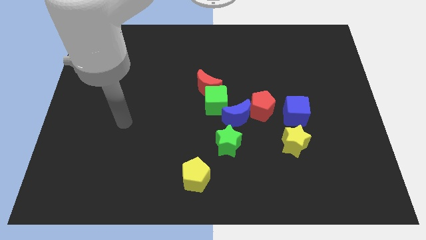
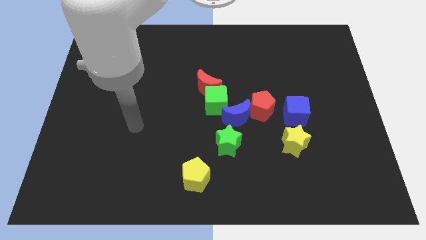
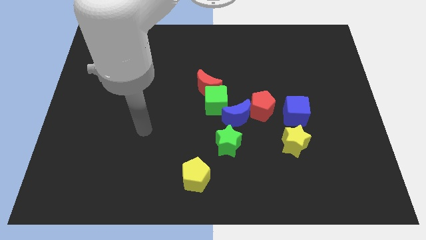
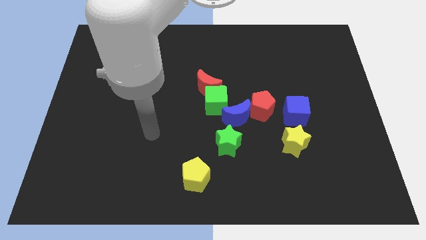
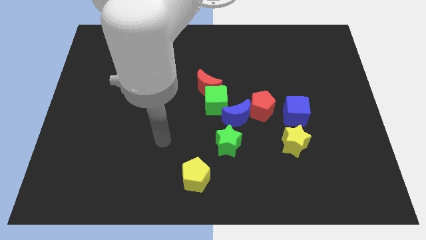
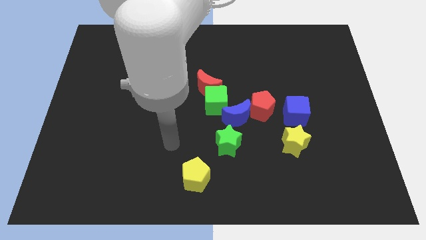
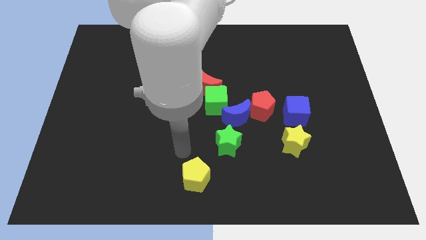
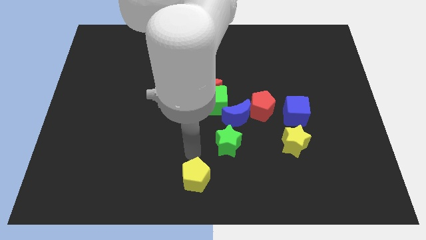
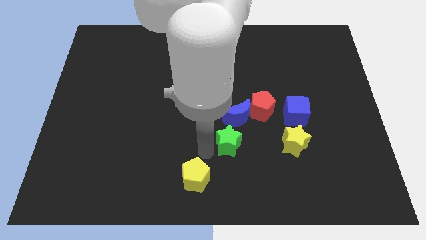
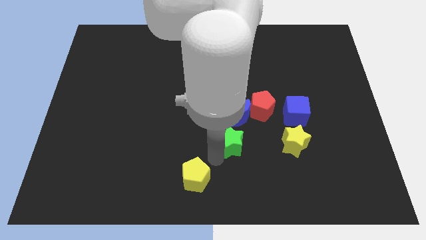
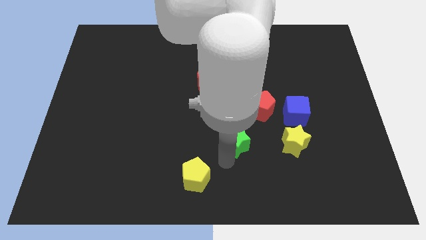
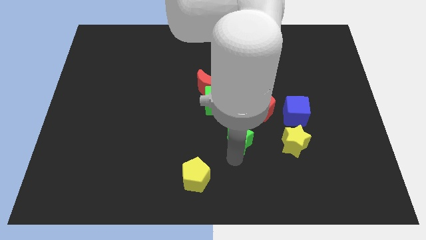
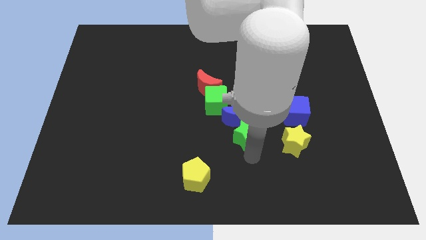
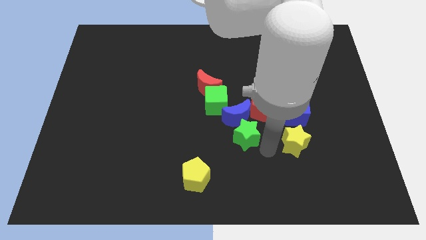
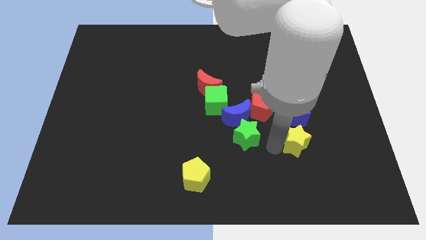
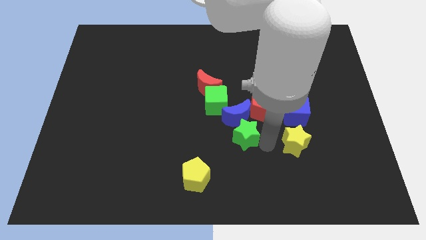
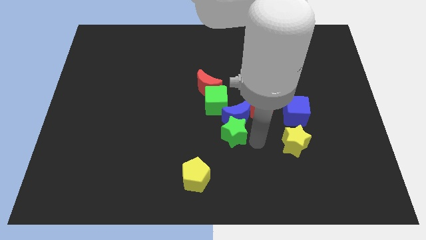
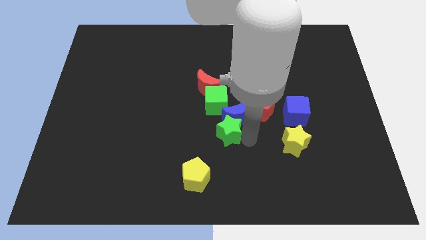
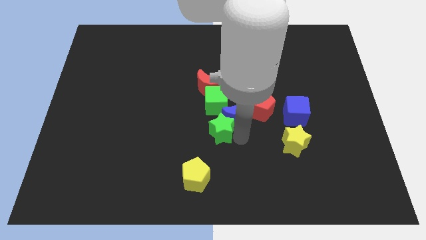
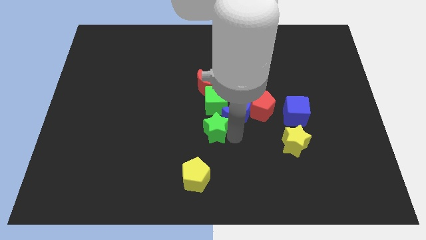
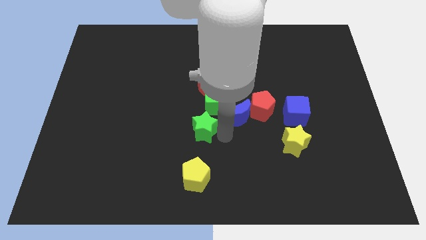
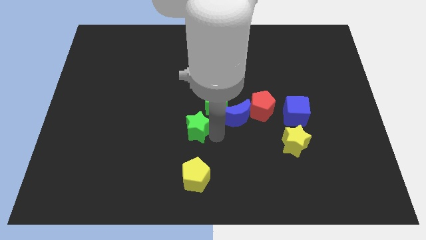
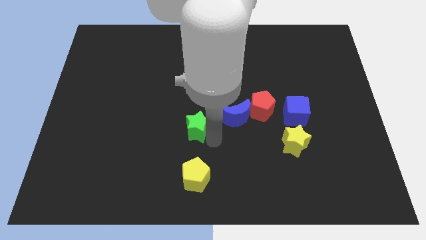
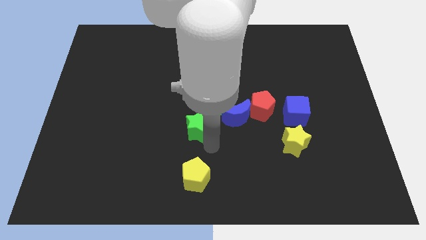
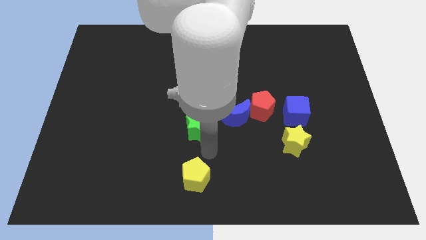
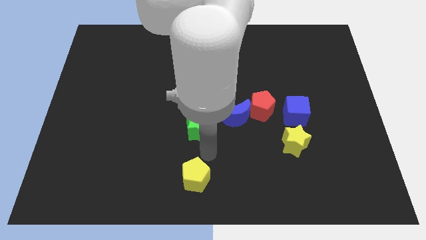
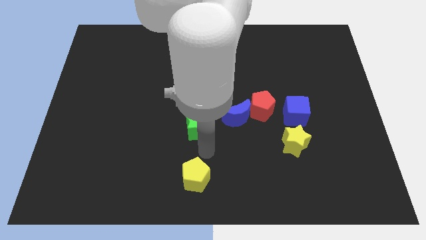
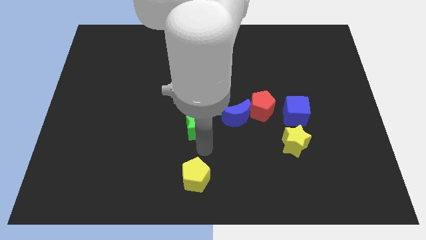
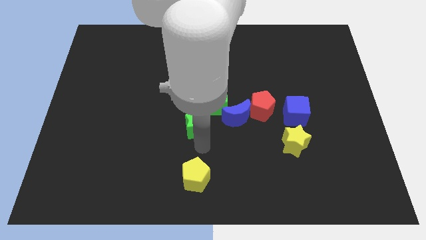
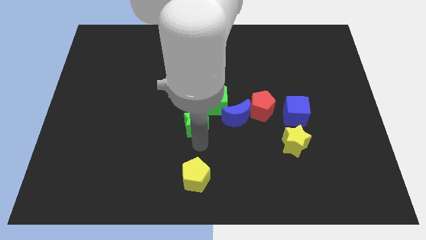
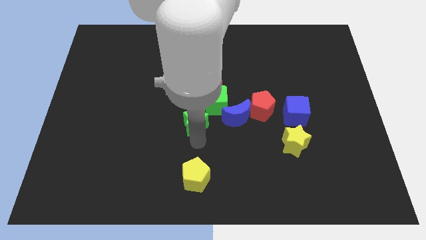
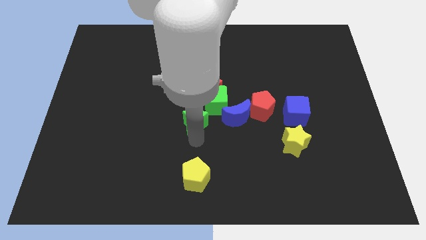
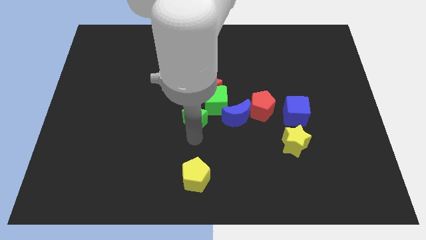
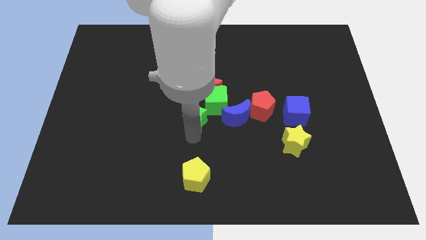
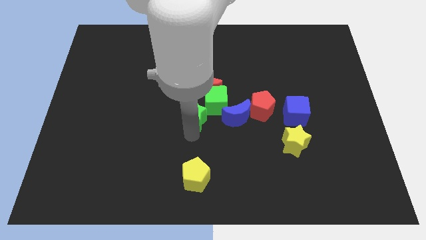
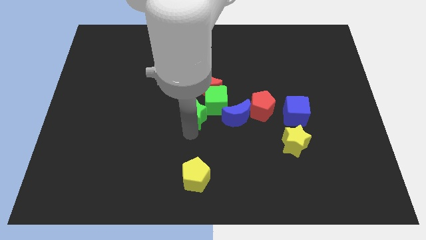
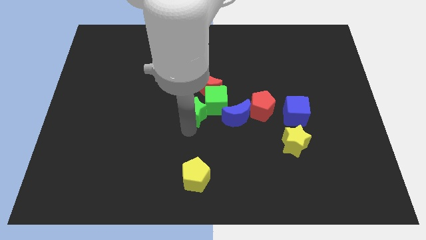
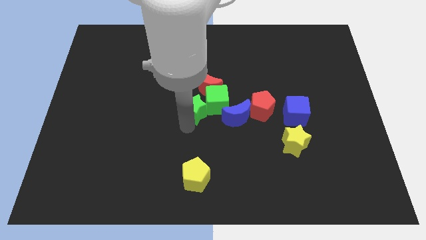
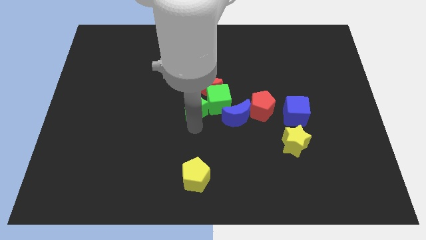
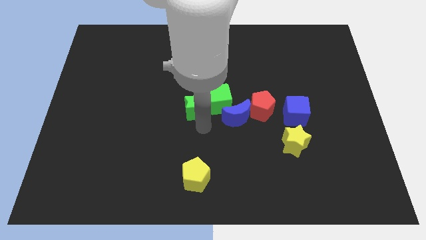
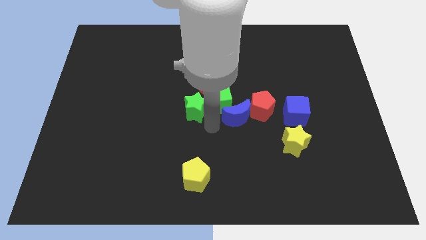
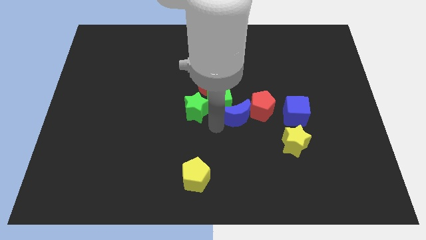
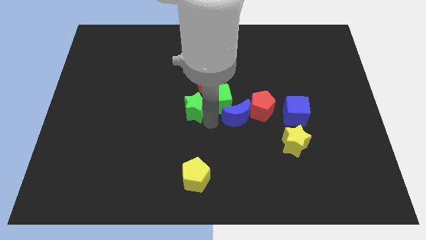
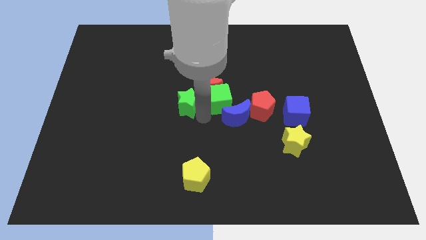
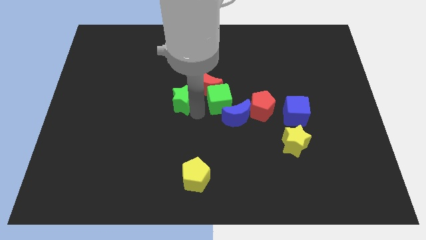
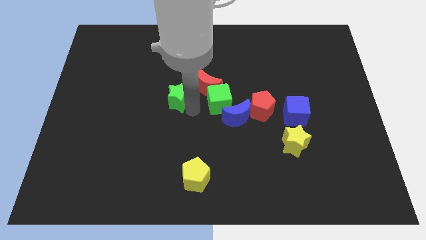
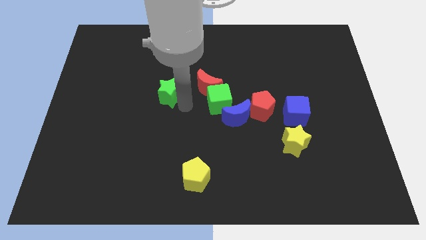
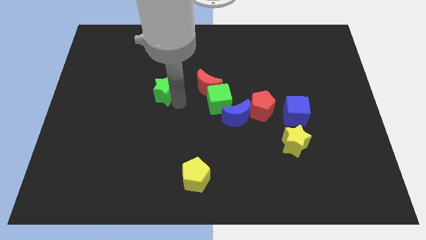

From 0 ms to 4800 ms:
push the green star diagonally up and left

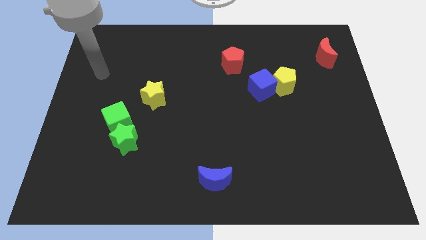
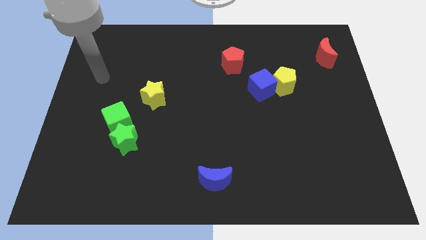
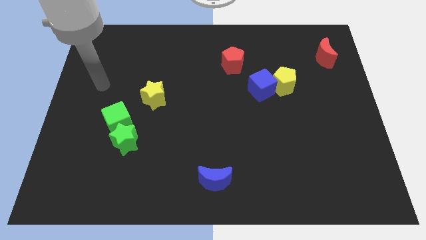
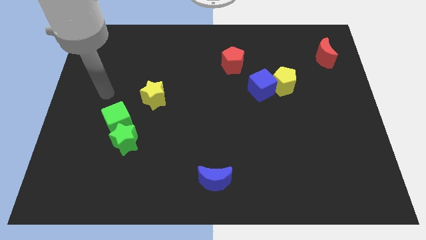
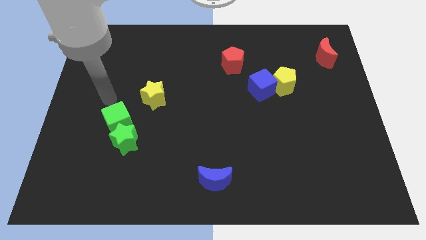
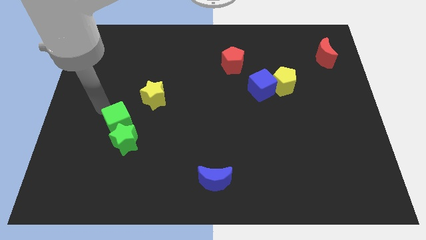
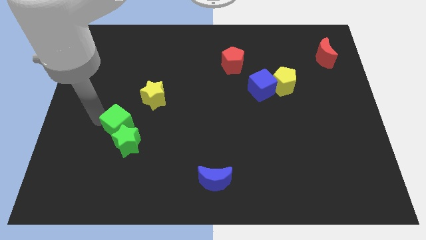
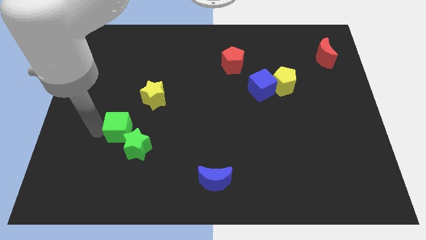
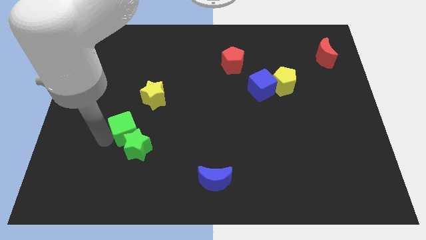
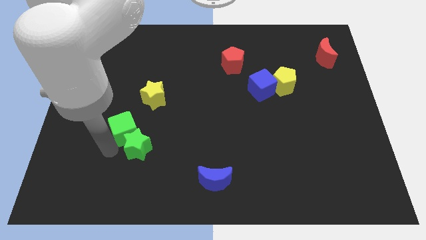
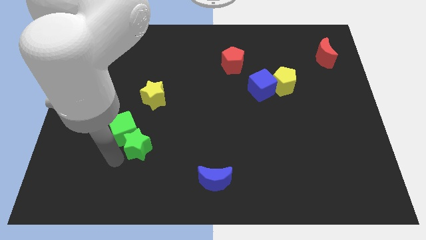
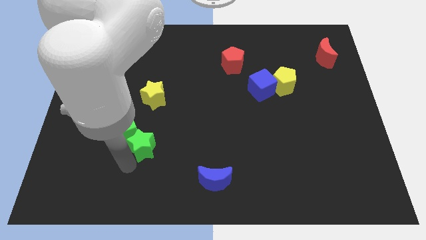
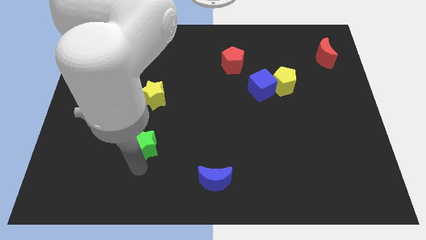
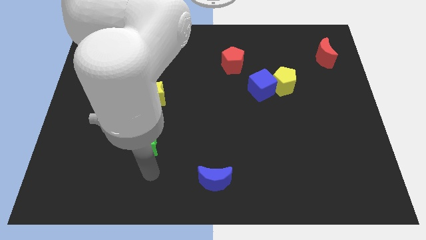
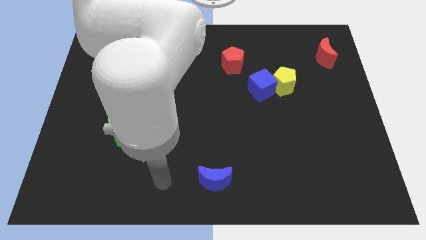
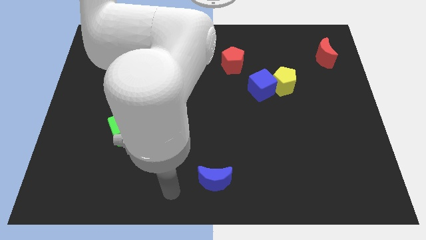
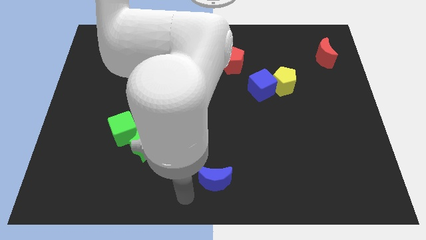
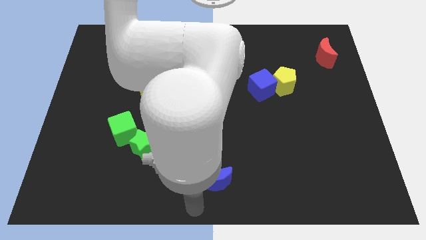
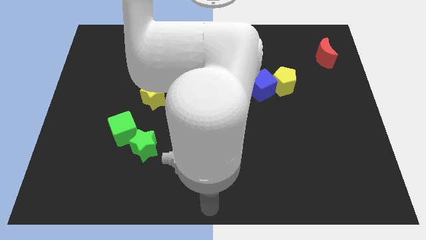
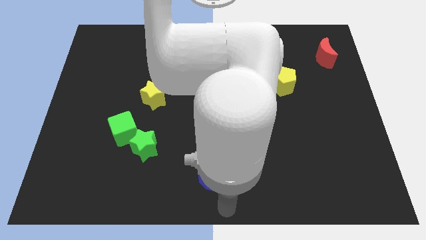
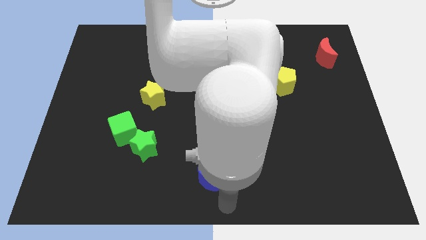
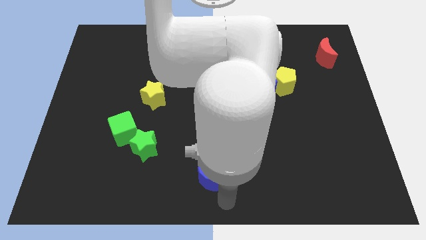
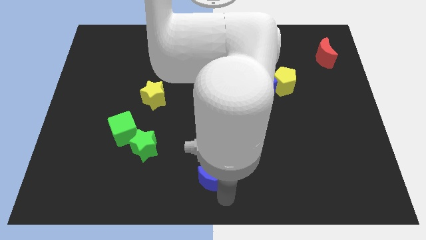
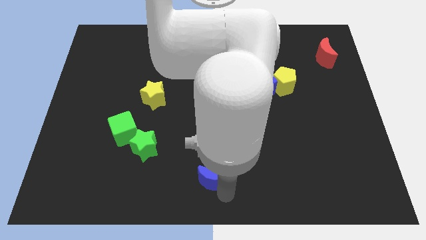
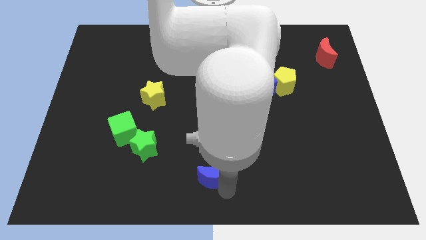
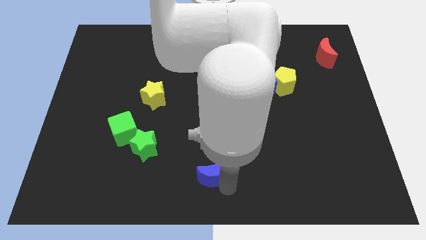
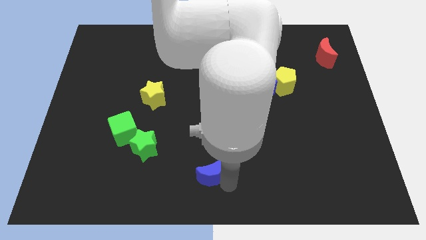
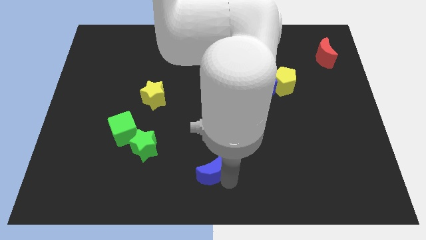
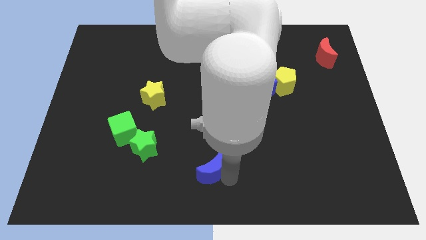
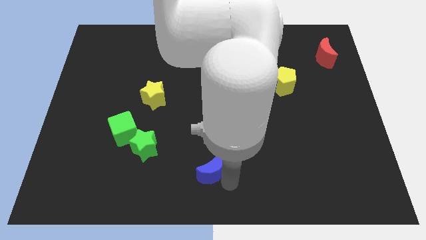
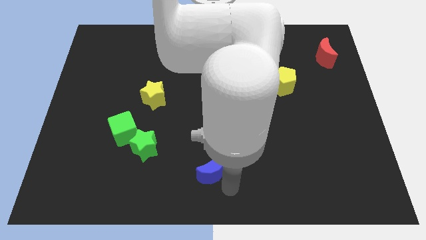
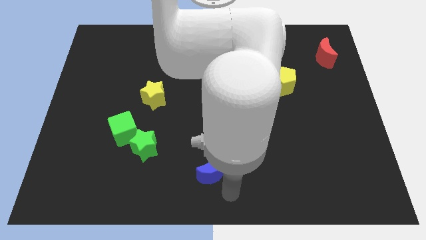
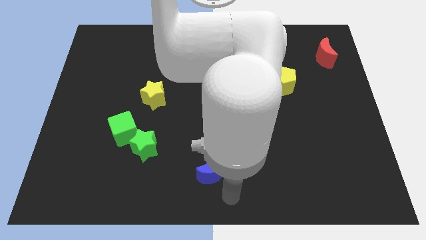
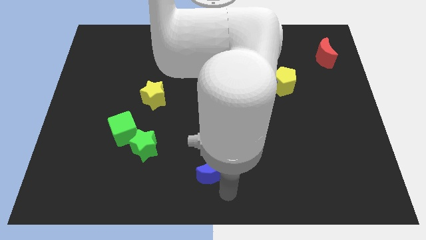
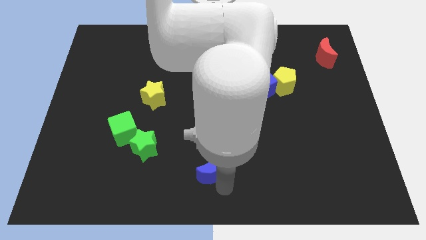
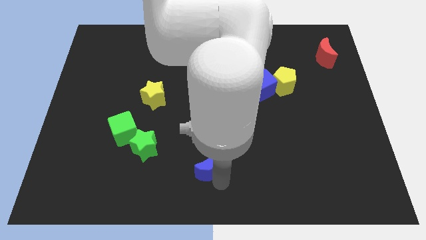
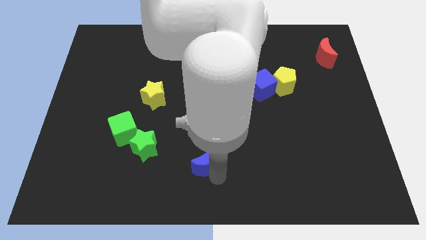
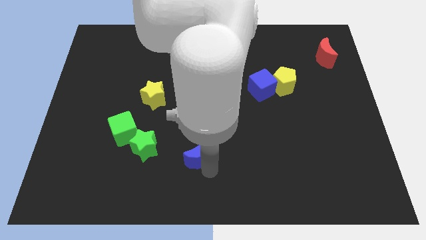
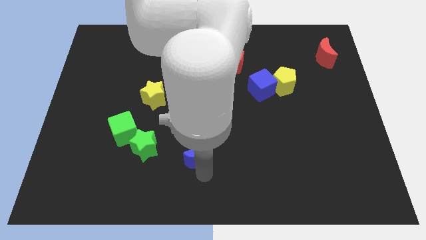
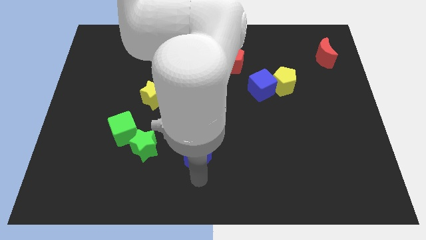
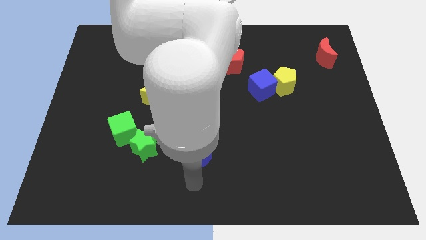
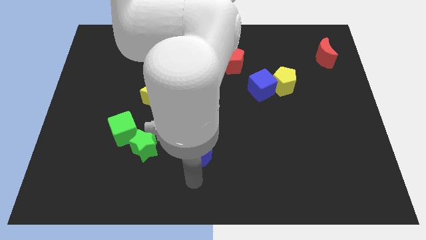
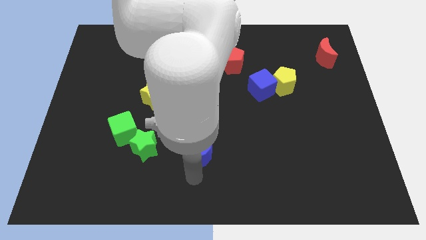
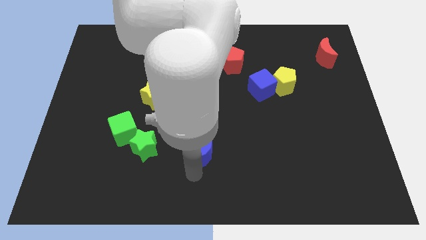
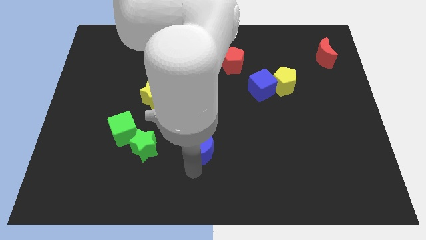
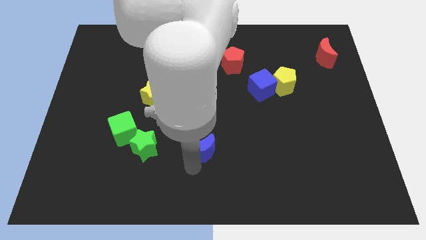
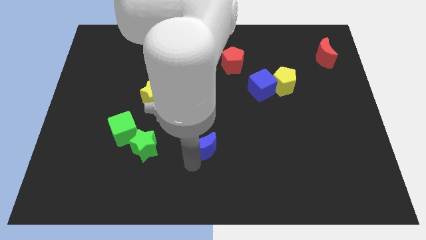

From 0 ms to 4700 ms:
slide the blue moon a bit upwards
